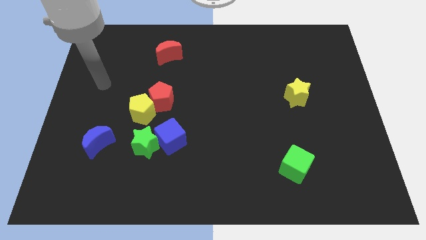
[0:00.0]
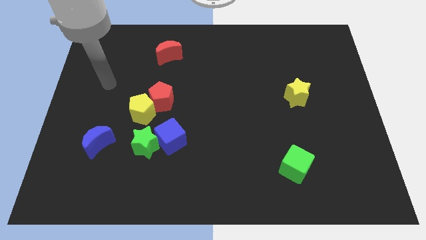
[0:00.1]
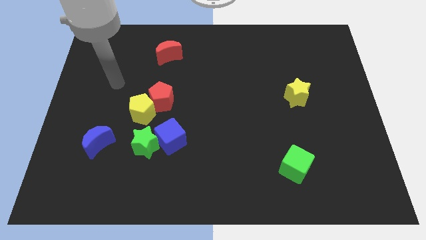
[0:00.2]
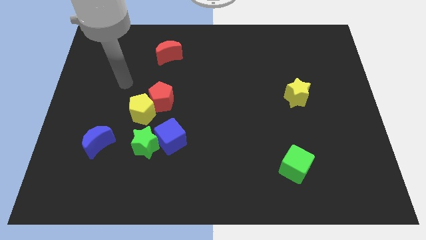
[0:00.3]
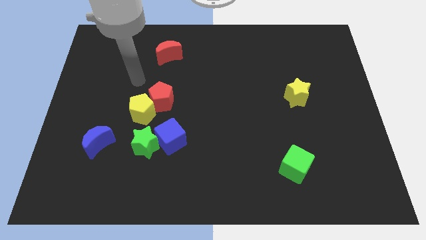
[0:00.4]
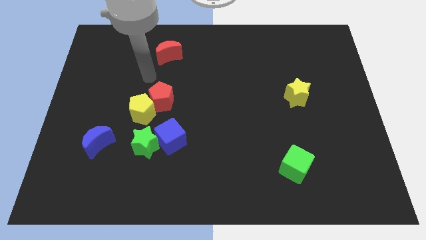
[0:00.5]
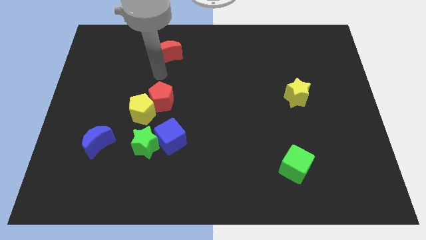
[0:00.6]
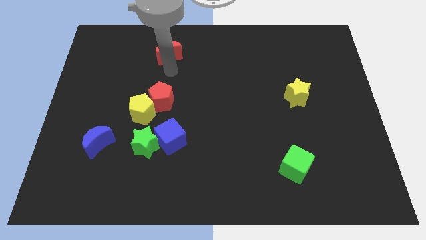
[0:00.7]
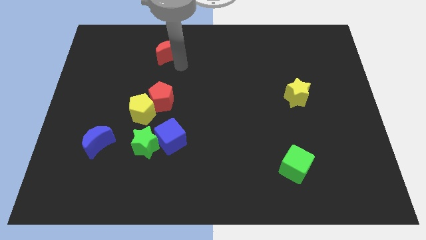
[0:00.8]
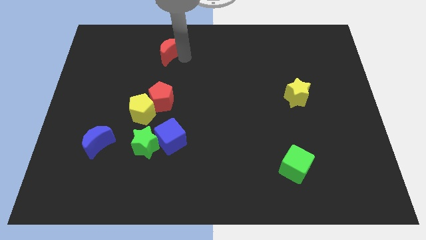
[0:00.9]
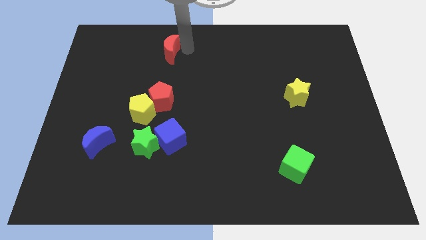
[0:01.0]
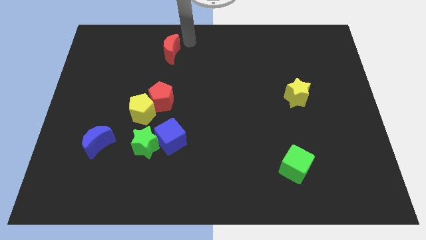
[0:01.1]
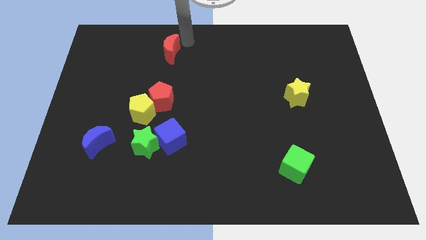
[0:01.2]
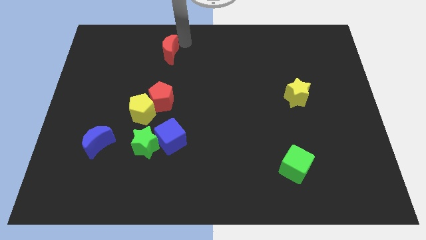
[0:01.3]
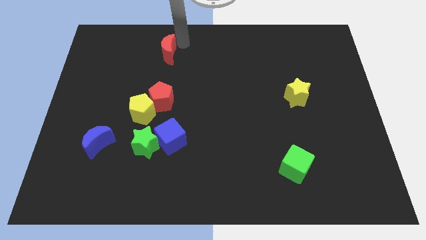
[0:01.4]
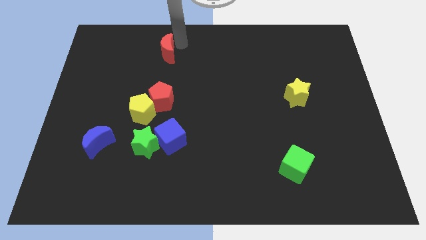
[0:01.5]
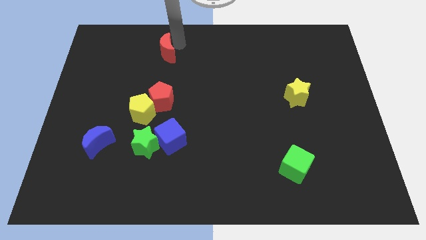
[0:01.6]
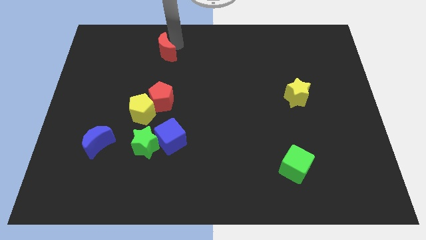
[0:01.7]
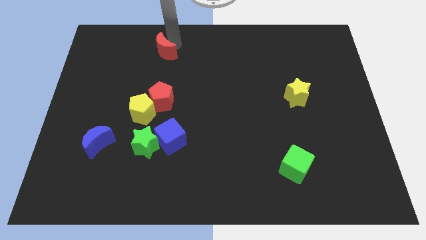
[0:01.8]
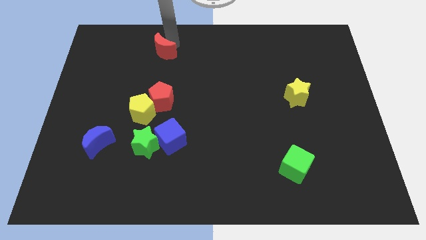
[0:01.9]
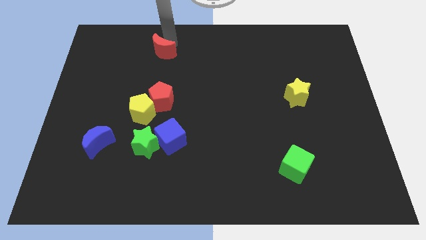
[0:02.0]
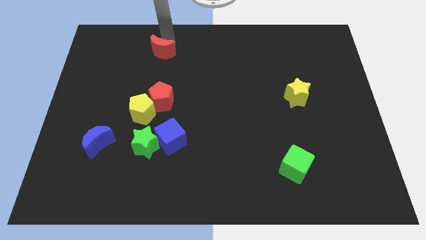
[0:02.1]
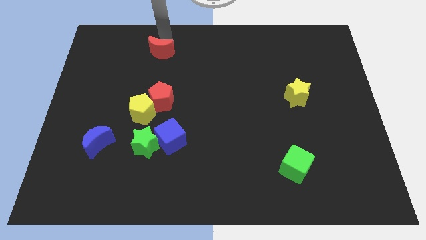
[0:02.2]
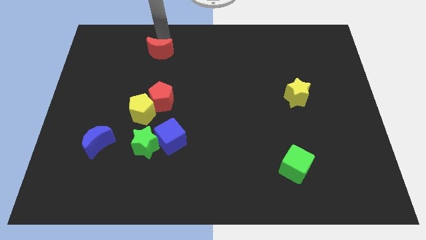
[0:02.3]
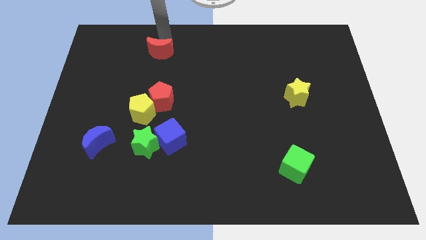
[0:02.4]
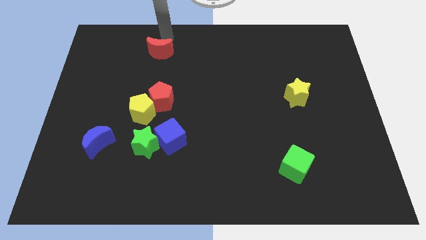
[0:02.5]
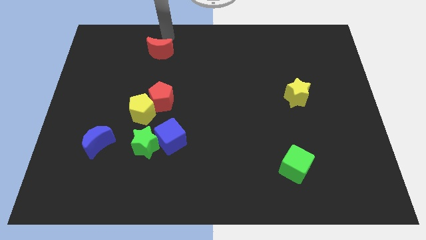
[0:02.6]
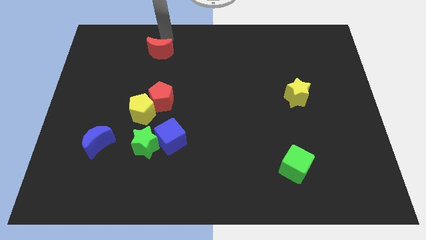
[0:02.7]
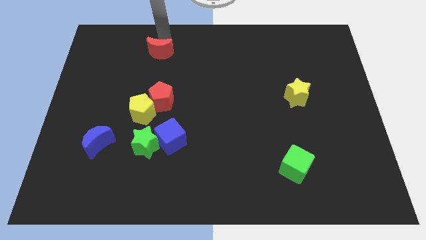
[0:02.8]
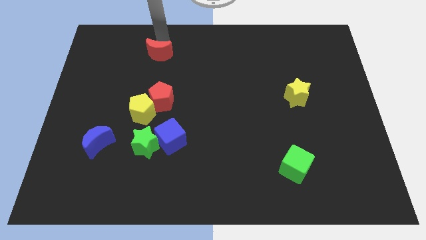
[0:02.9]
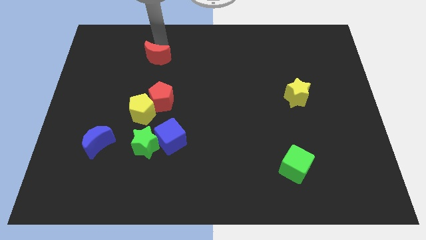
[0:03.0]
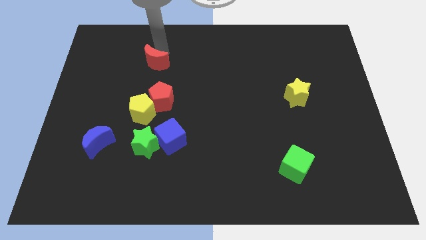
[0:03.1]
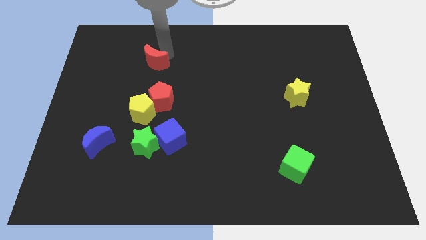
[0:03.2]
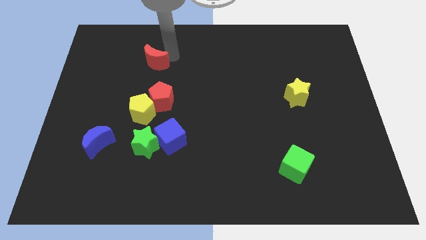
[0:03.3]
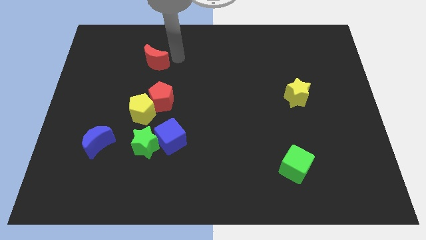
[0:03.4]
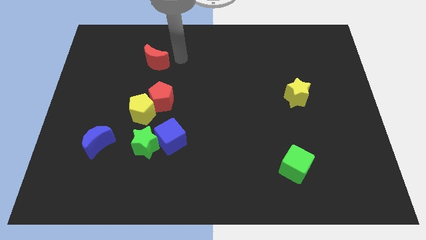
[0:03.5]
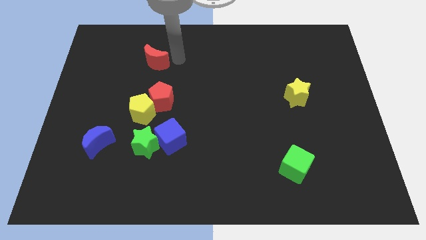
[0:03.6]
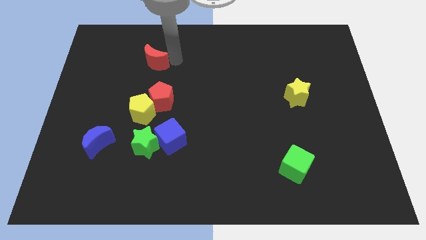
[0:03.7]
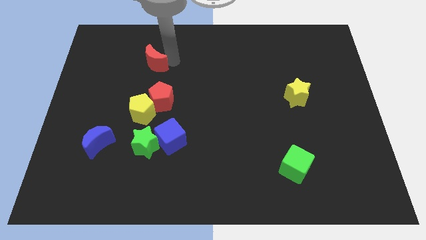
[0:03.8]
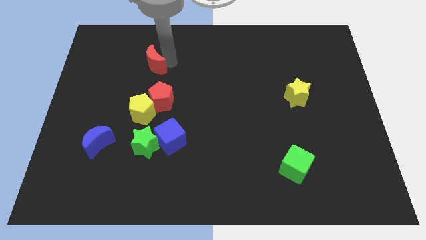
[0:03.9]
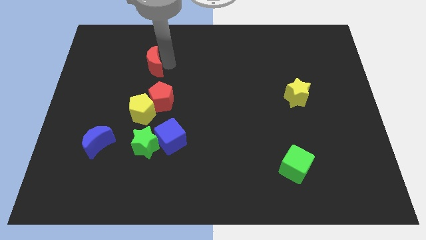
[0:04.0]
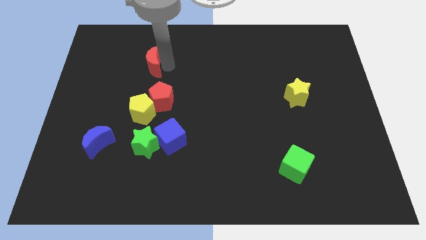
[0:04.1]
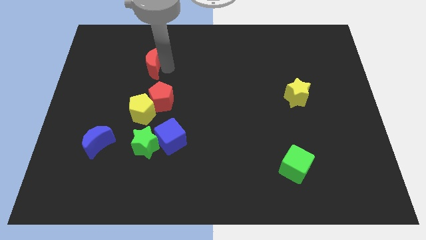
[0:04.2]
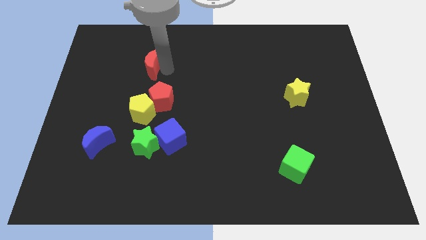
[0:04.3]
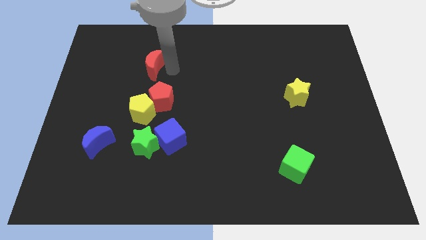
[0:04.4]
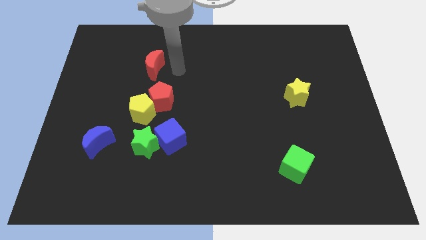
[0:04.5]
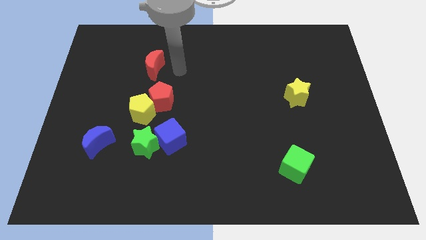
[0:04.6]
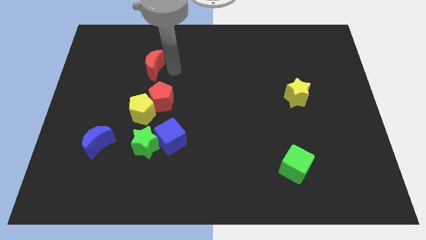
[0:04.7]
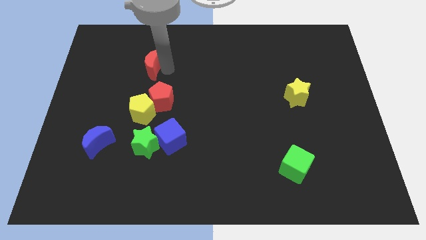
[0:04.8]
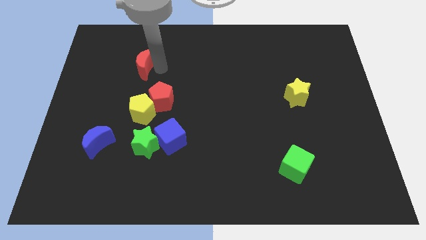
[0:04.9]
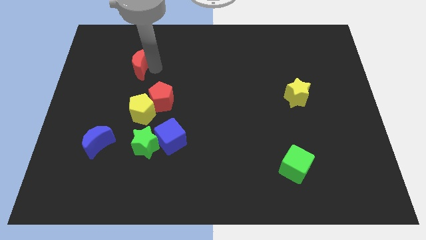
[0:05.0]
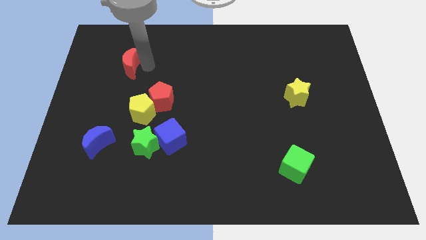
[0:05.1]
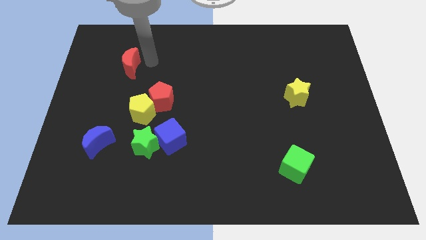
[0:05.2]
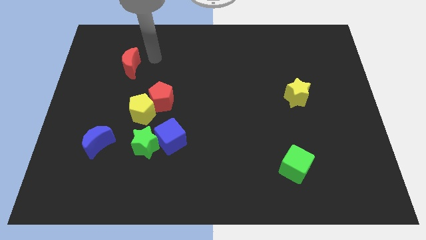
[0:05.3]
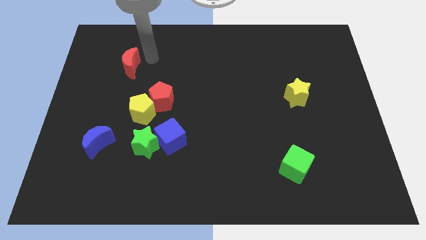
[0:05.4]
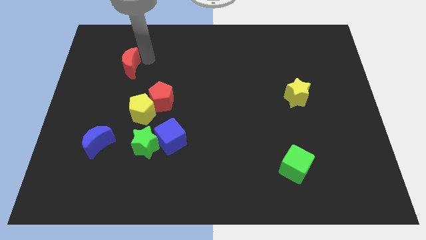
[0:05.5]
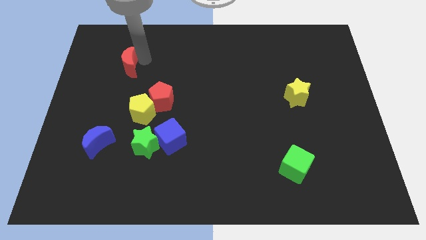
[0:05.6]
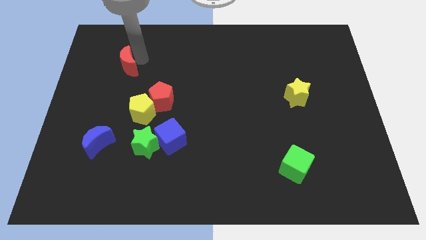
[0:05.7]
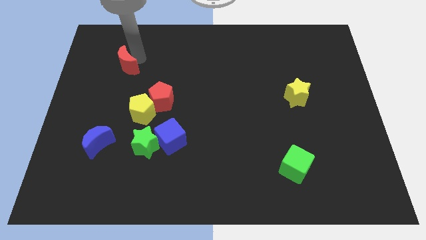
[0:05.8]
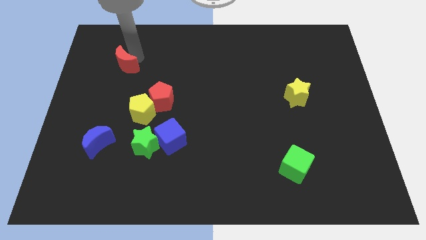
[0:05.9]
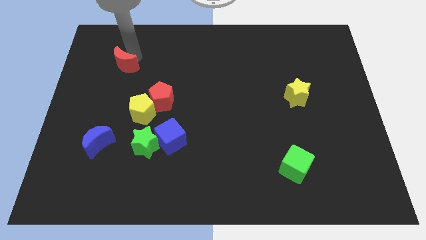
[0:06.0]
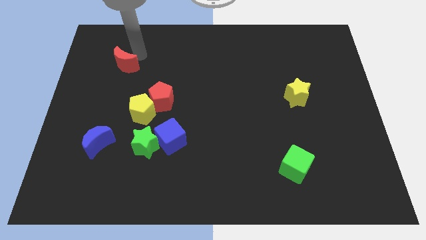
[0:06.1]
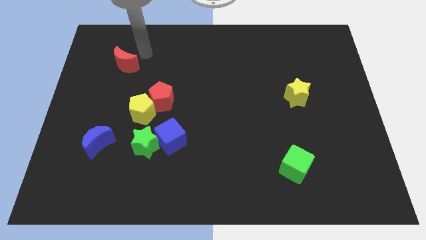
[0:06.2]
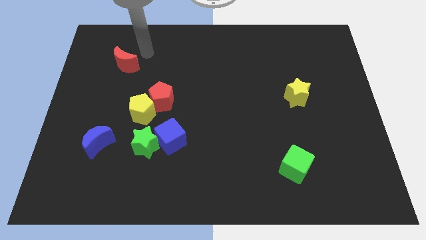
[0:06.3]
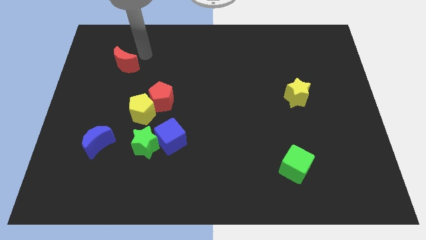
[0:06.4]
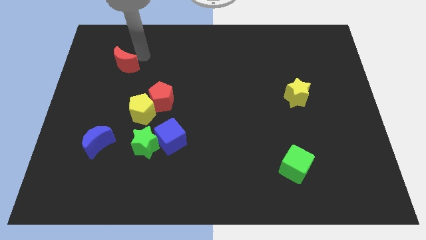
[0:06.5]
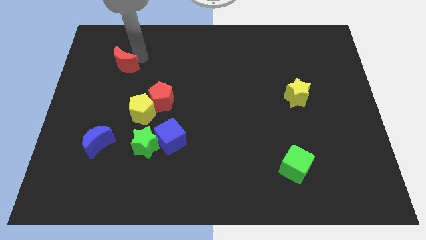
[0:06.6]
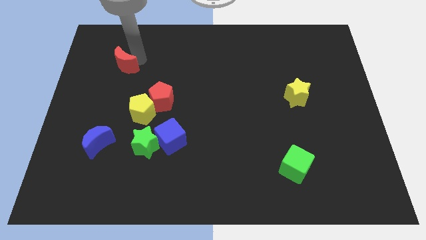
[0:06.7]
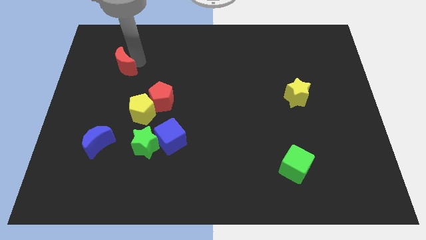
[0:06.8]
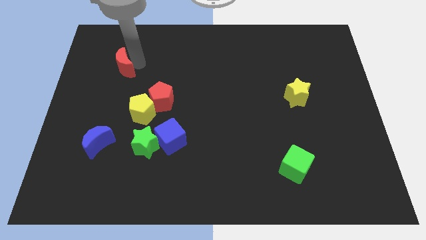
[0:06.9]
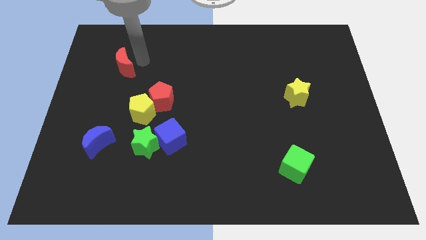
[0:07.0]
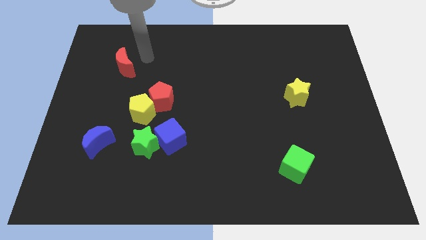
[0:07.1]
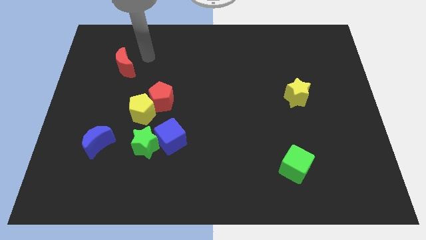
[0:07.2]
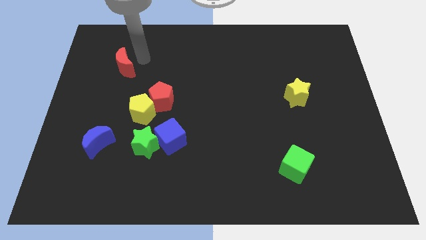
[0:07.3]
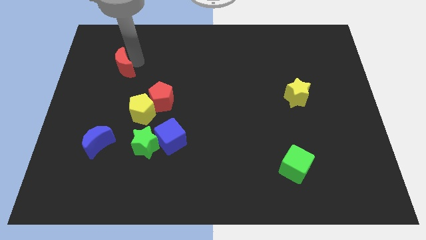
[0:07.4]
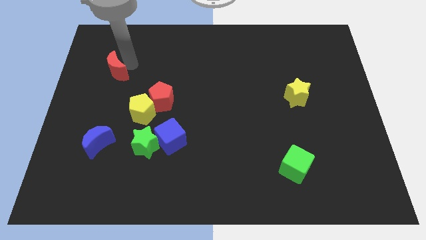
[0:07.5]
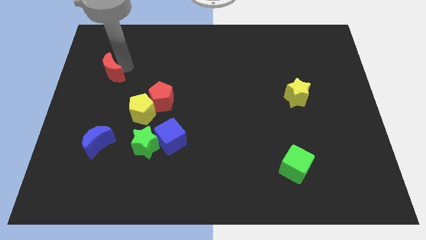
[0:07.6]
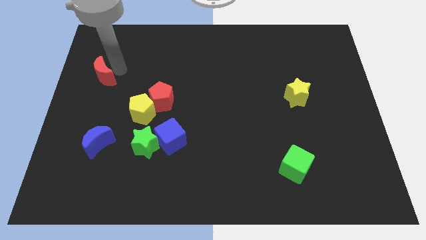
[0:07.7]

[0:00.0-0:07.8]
put the red moon to the center left
